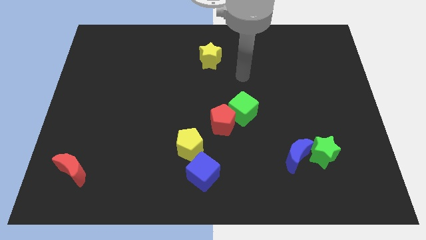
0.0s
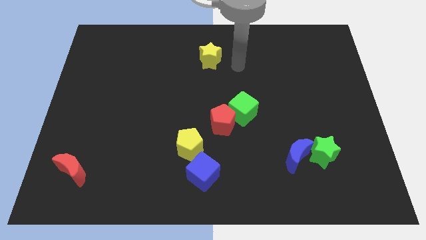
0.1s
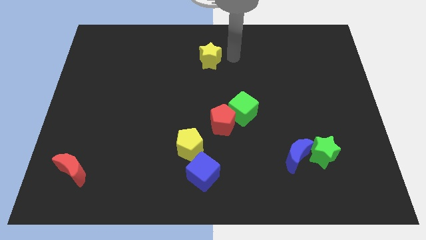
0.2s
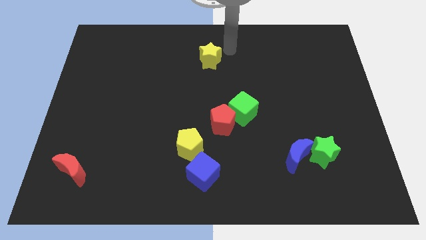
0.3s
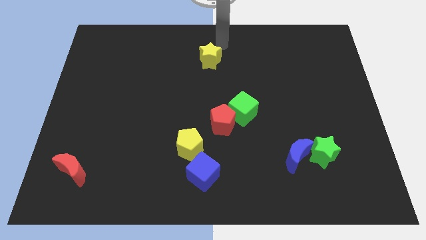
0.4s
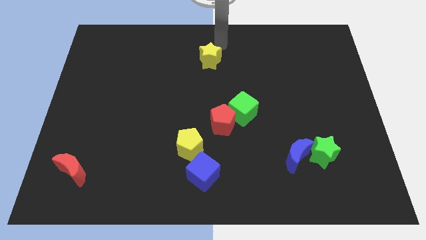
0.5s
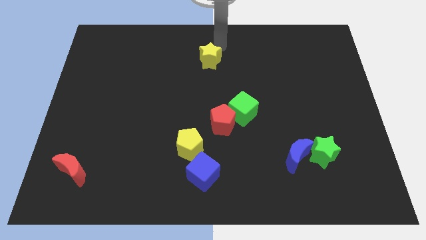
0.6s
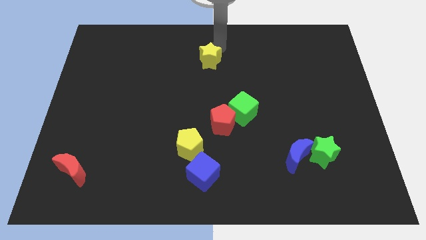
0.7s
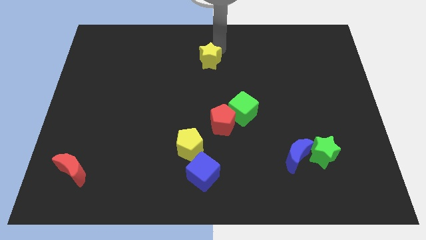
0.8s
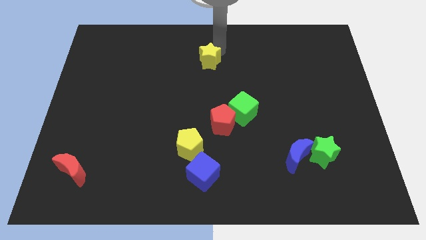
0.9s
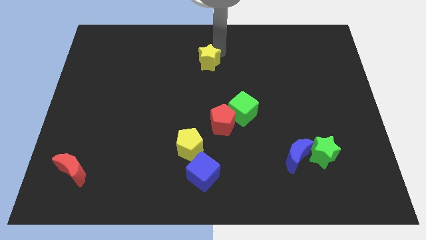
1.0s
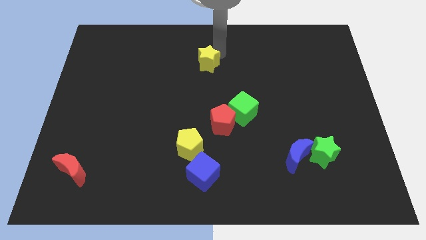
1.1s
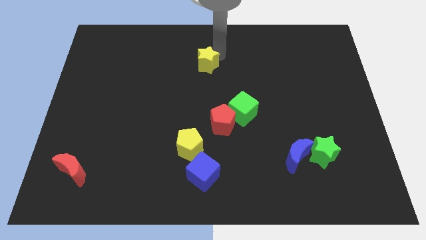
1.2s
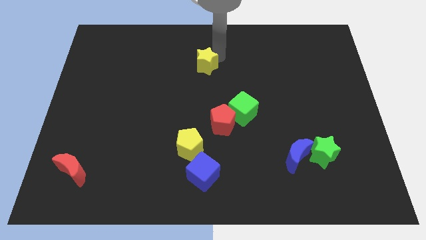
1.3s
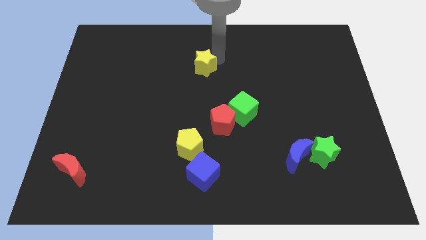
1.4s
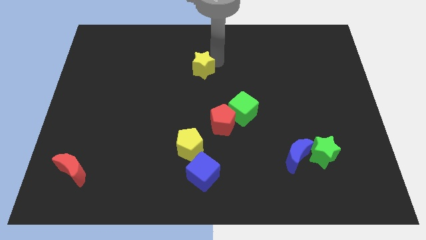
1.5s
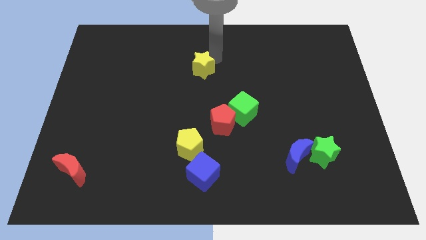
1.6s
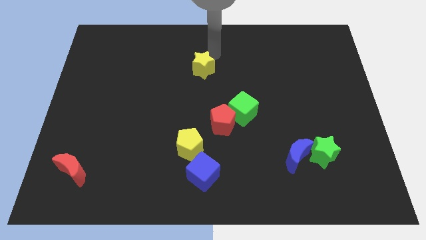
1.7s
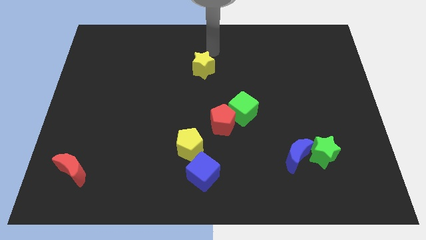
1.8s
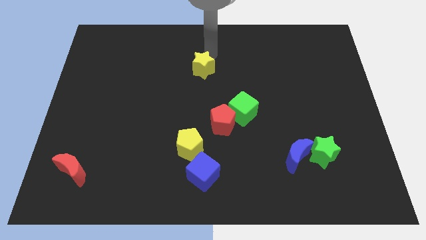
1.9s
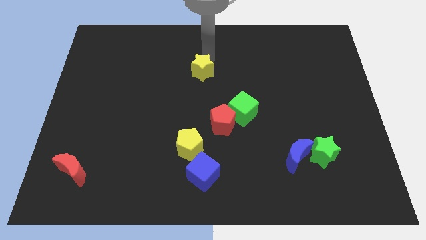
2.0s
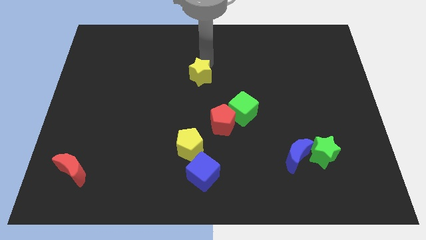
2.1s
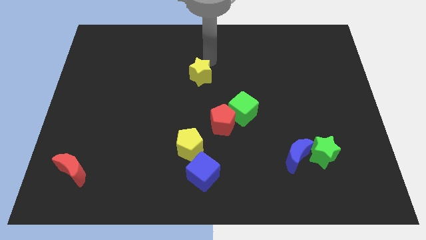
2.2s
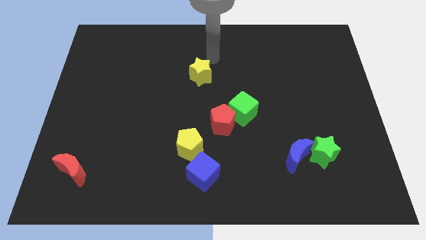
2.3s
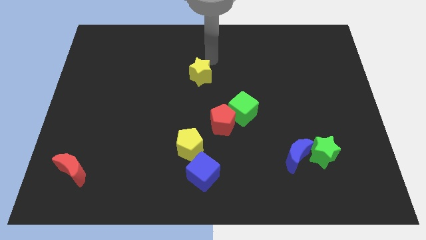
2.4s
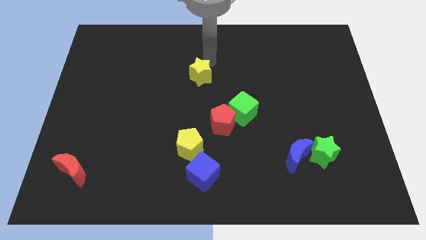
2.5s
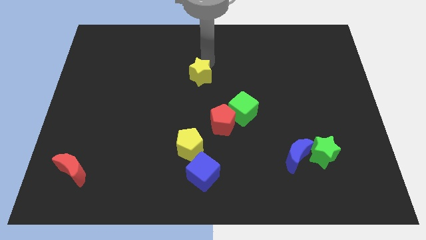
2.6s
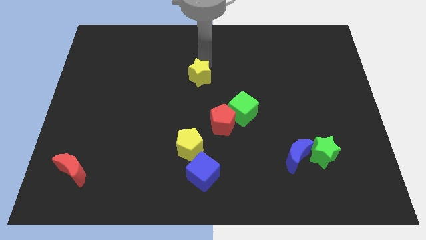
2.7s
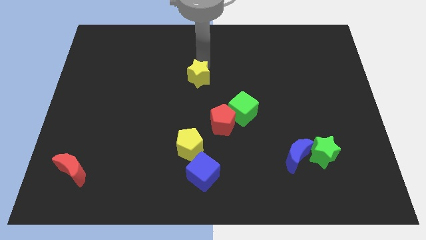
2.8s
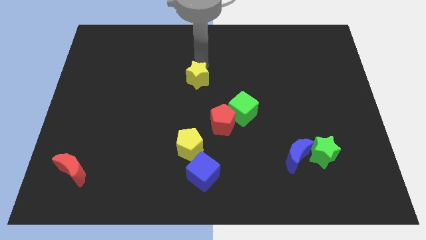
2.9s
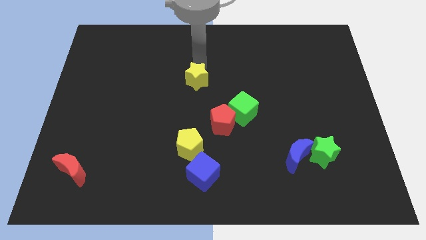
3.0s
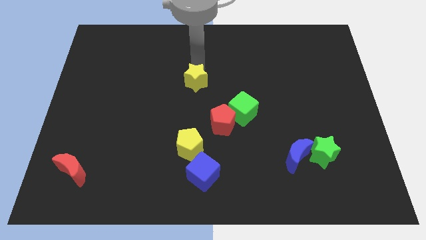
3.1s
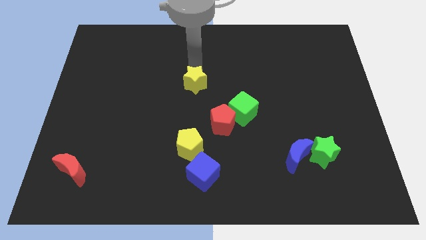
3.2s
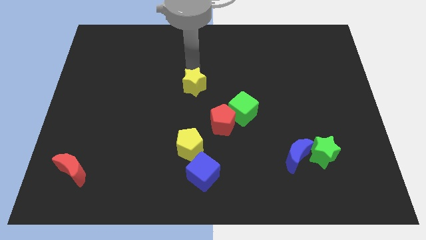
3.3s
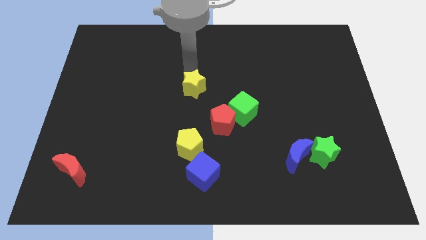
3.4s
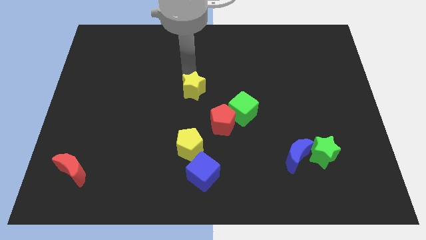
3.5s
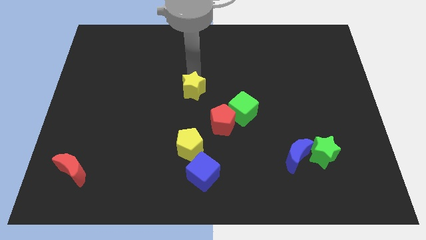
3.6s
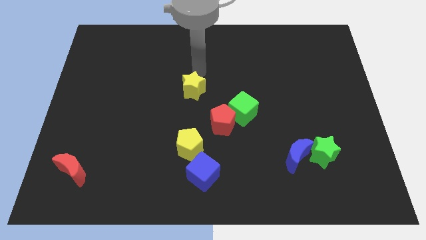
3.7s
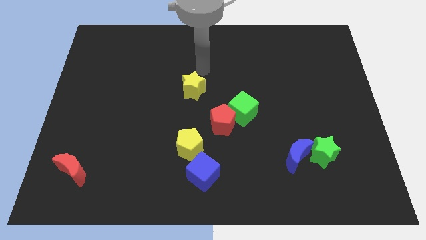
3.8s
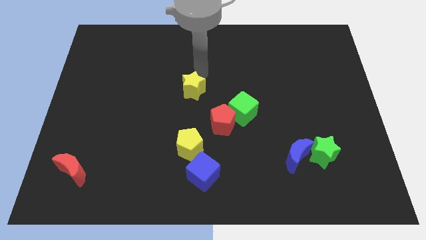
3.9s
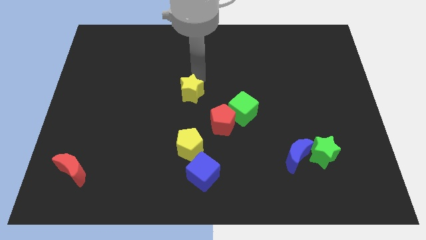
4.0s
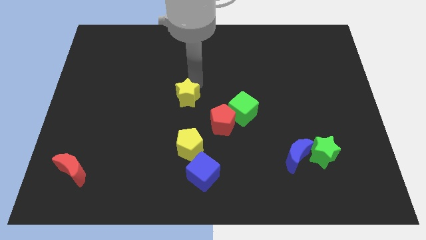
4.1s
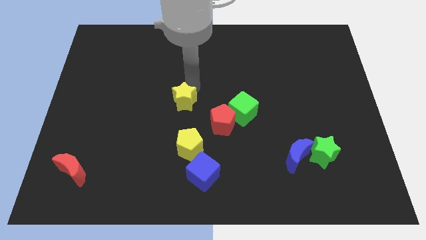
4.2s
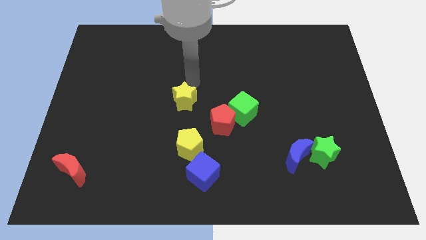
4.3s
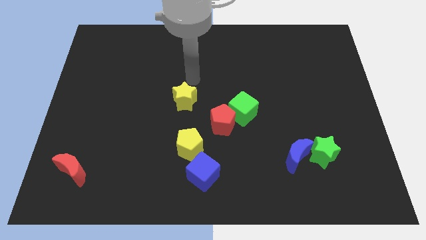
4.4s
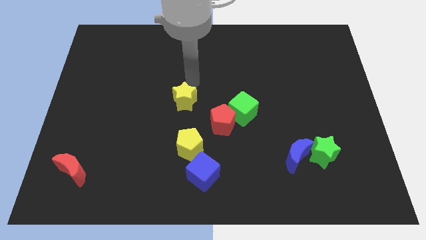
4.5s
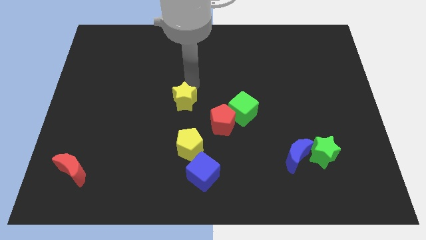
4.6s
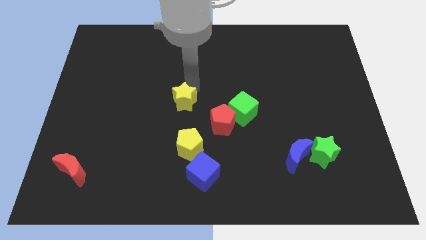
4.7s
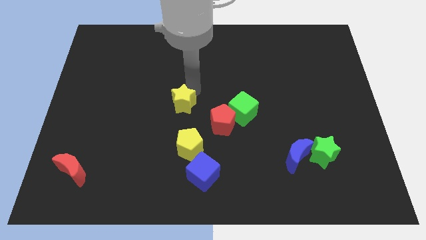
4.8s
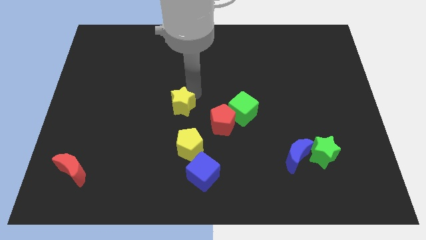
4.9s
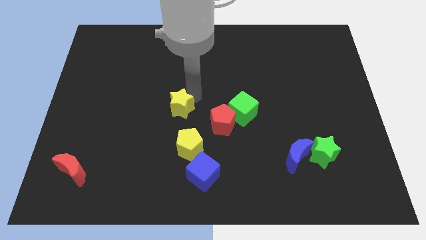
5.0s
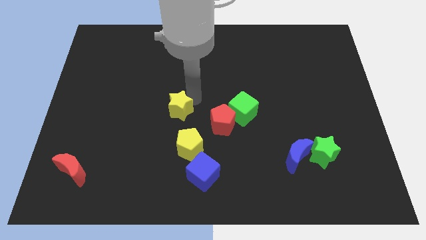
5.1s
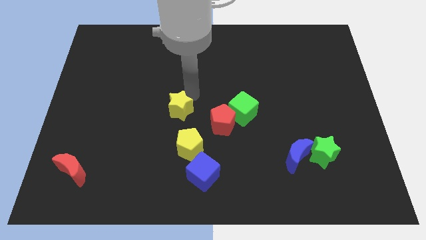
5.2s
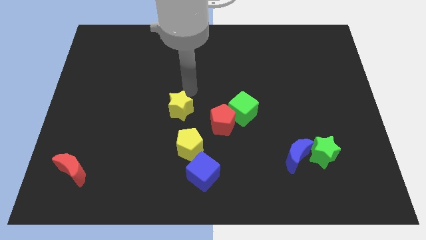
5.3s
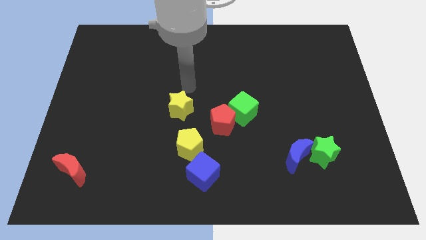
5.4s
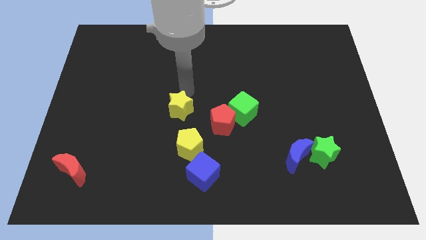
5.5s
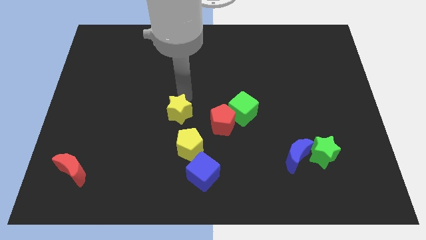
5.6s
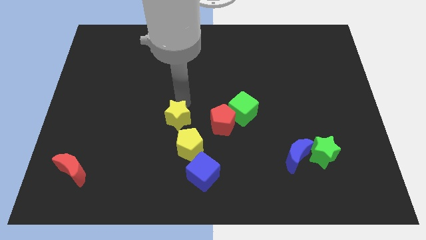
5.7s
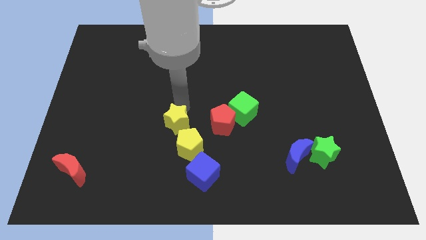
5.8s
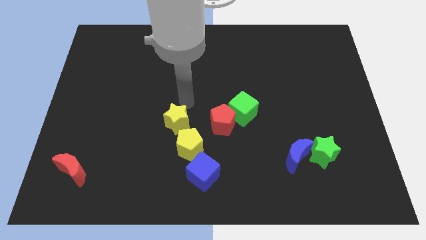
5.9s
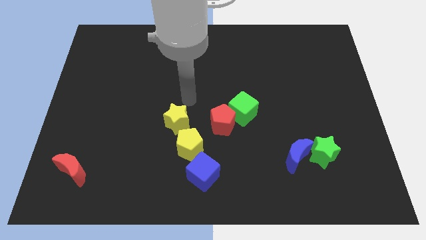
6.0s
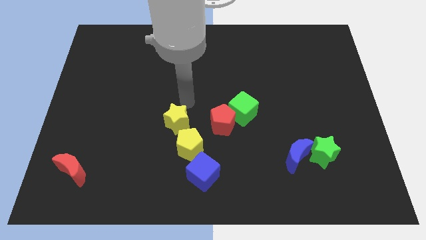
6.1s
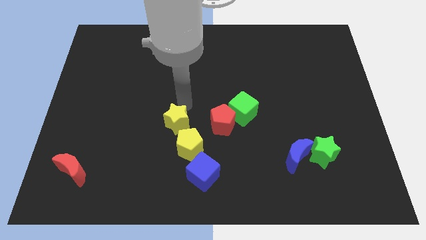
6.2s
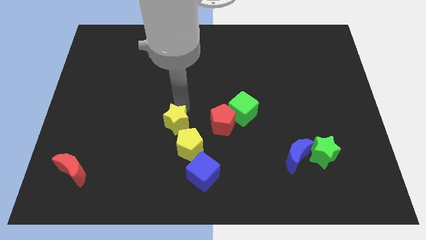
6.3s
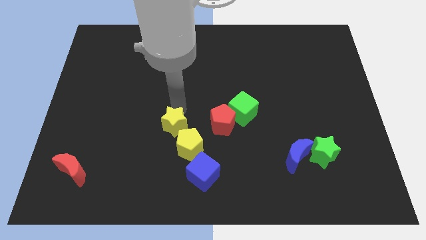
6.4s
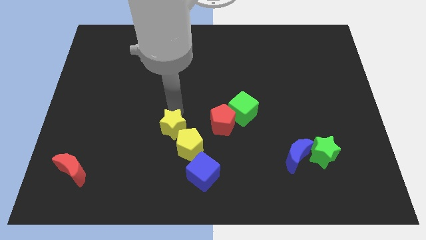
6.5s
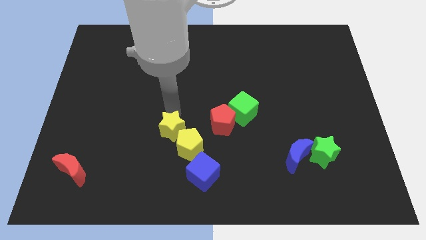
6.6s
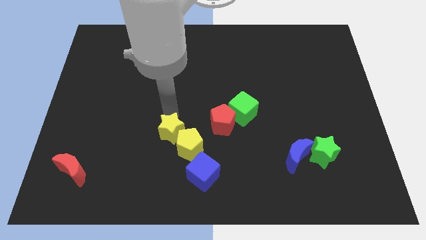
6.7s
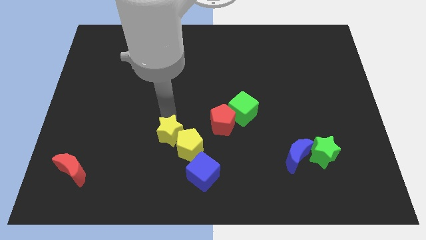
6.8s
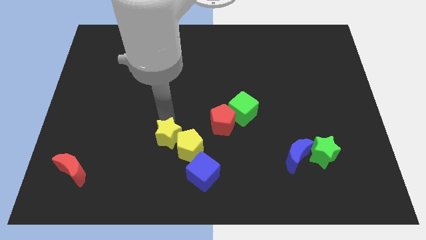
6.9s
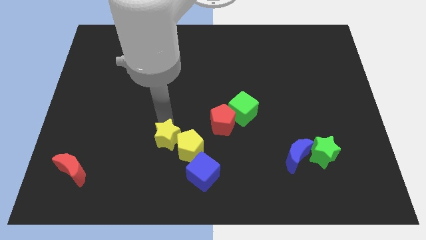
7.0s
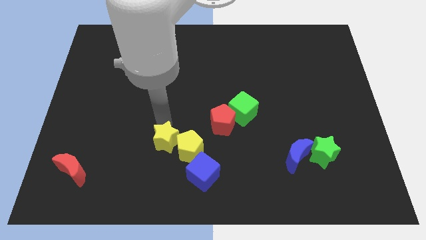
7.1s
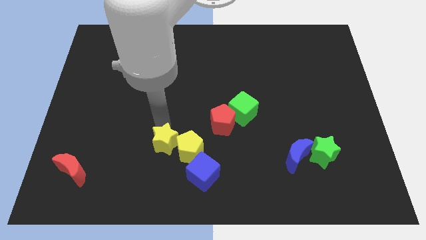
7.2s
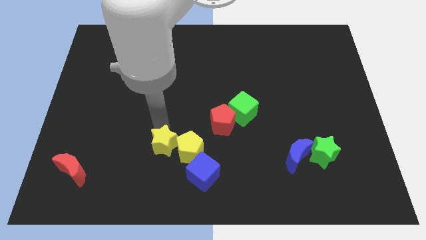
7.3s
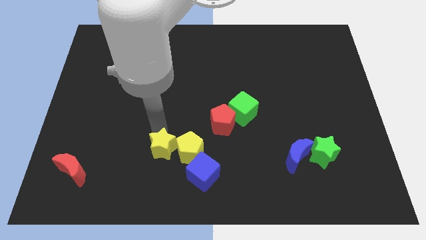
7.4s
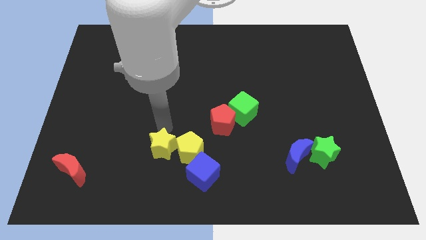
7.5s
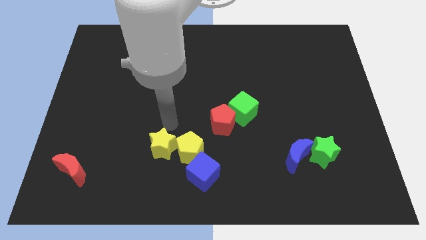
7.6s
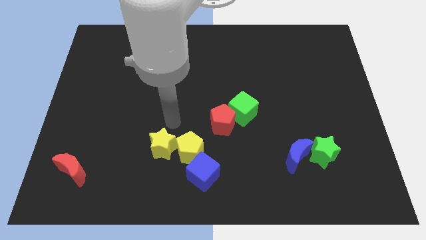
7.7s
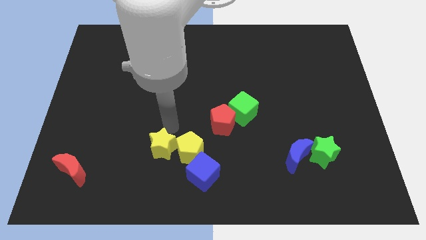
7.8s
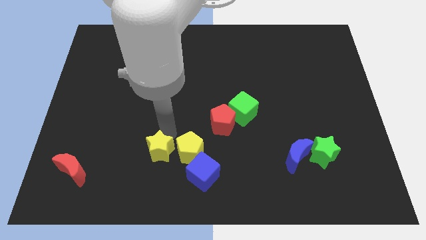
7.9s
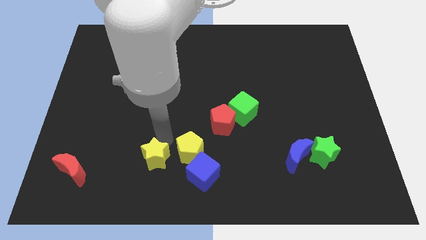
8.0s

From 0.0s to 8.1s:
move the yellow star left of the blue cube
